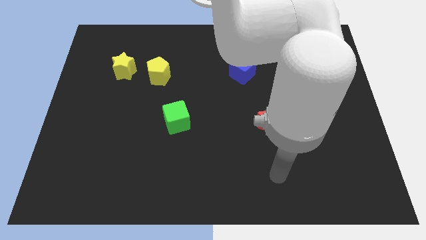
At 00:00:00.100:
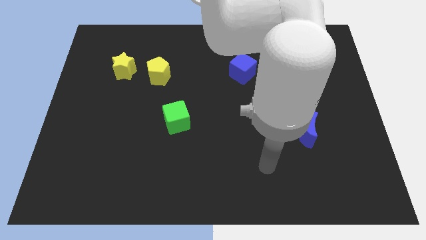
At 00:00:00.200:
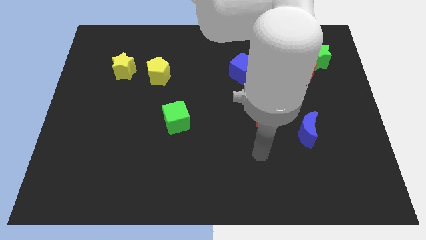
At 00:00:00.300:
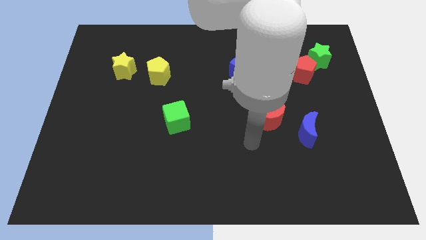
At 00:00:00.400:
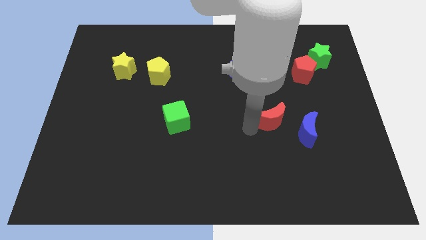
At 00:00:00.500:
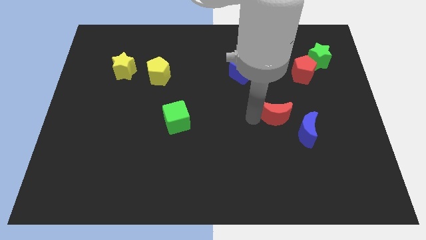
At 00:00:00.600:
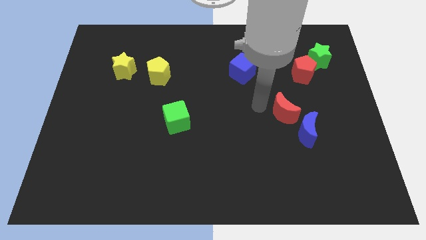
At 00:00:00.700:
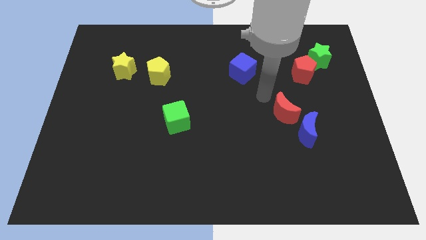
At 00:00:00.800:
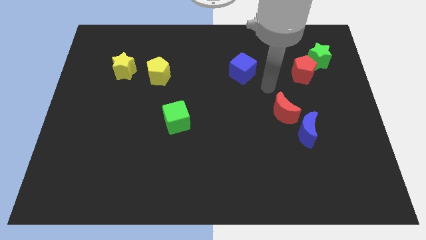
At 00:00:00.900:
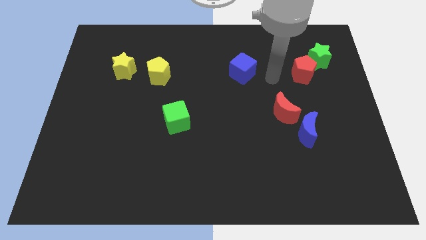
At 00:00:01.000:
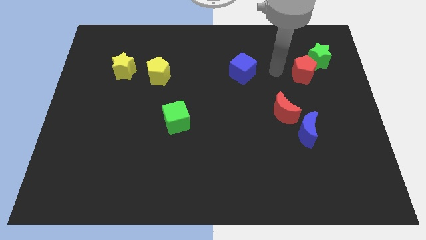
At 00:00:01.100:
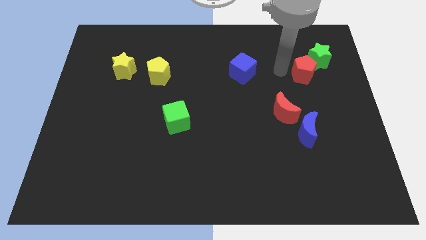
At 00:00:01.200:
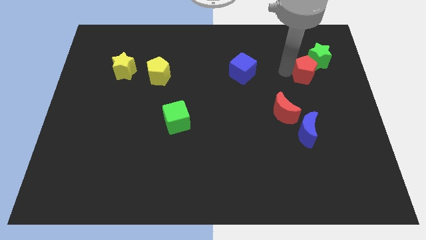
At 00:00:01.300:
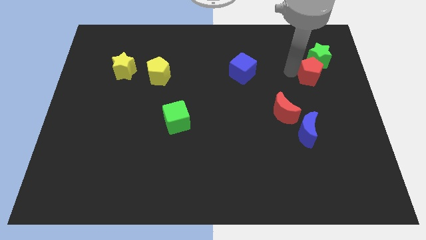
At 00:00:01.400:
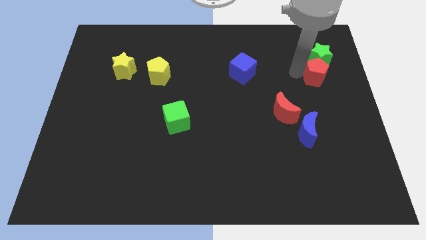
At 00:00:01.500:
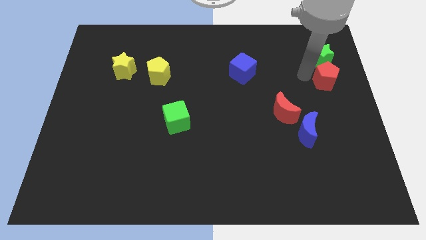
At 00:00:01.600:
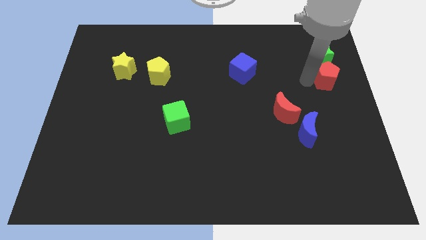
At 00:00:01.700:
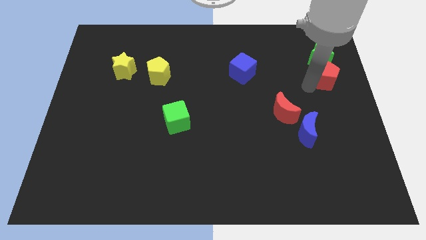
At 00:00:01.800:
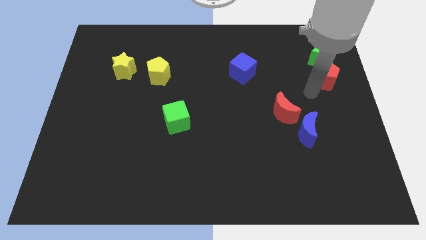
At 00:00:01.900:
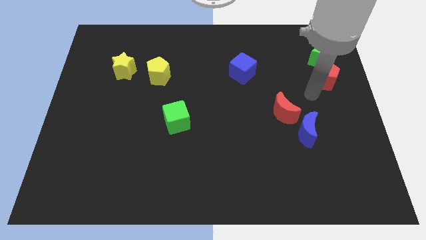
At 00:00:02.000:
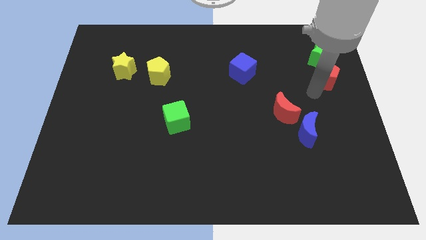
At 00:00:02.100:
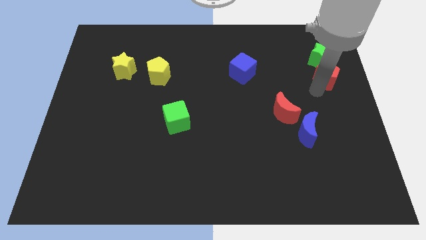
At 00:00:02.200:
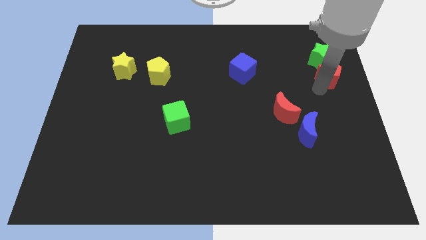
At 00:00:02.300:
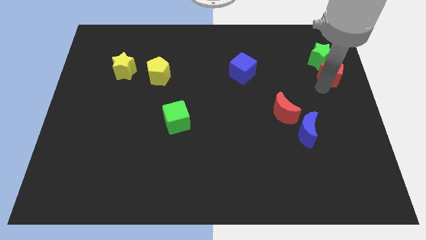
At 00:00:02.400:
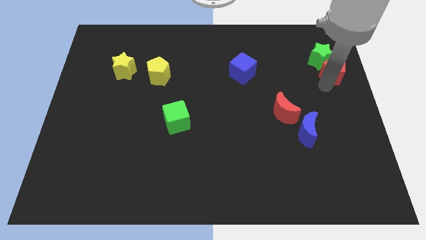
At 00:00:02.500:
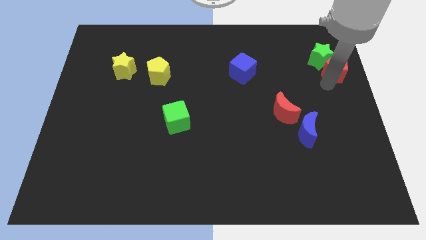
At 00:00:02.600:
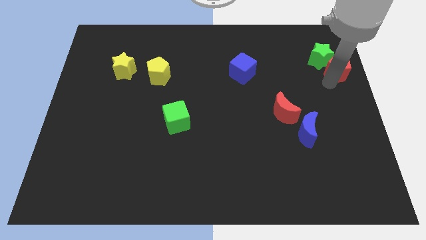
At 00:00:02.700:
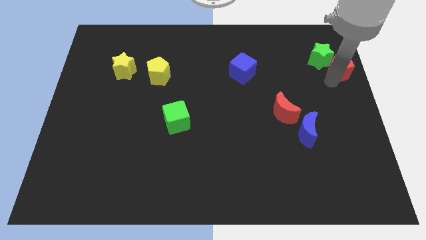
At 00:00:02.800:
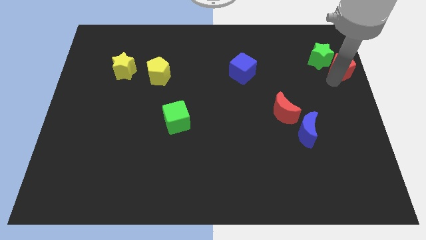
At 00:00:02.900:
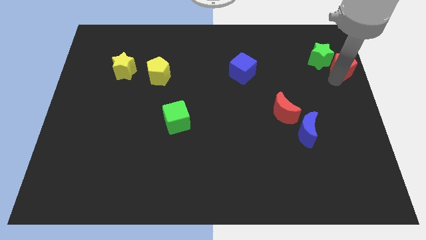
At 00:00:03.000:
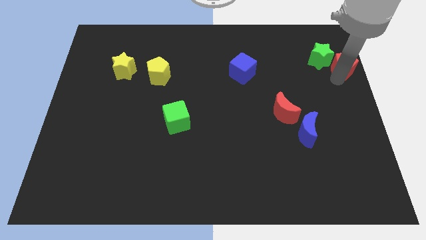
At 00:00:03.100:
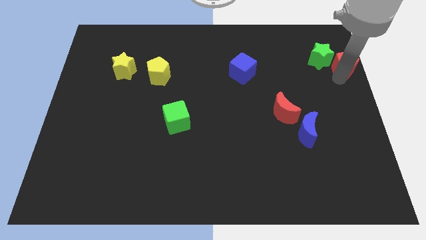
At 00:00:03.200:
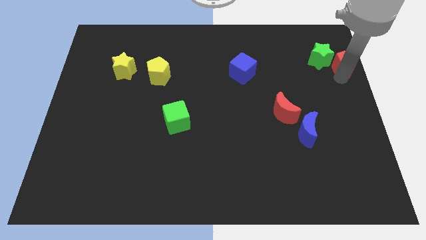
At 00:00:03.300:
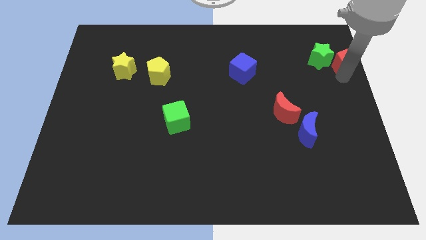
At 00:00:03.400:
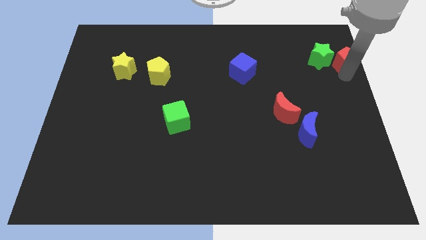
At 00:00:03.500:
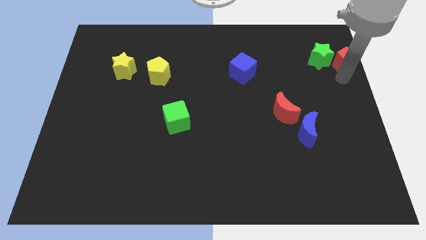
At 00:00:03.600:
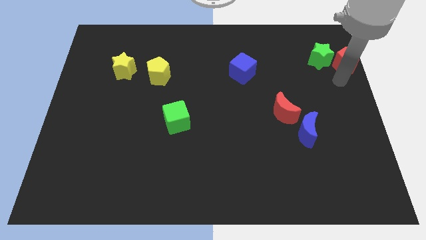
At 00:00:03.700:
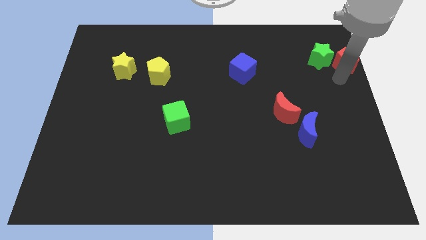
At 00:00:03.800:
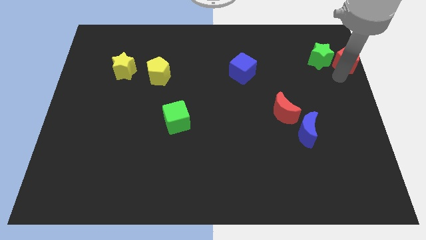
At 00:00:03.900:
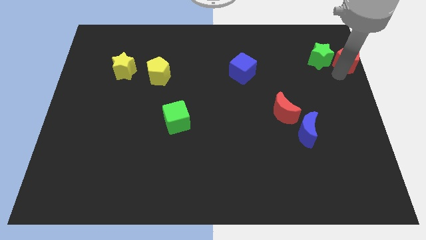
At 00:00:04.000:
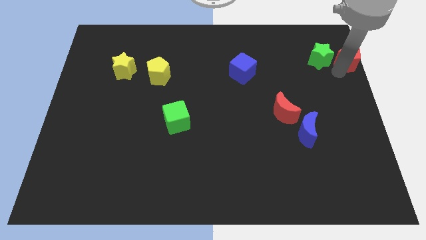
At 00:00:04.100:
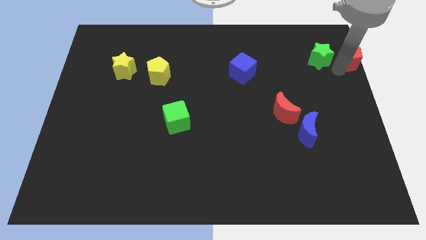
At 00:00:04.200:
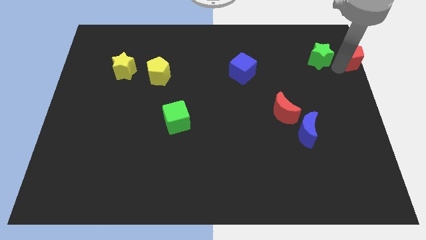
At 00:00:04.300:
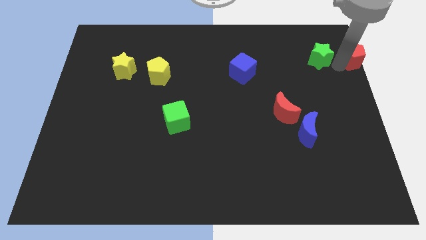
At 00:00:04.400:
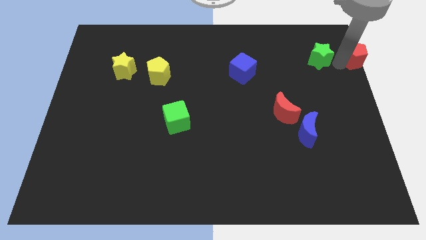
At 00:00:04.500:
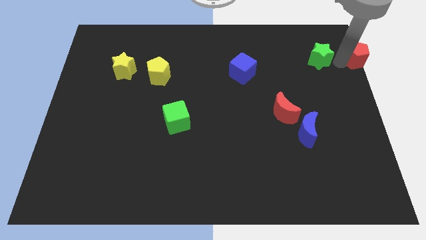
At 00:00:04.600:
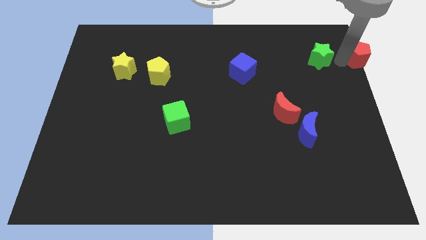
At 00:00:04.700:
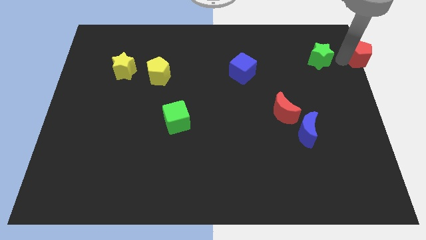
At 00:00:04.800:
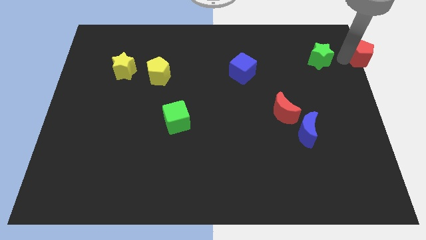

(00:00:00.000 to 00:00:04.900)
move the red pentagon to the top right of the board
